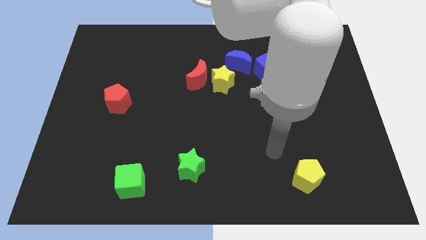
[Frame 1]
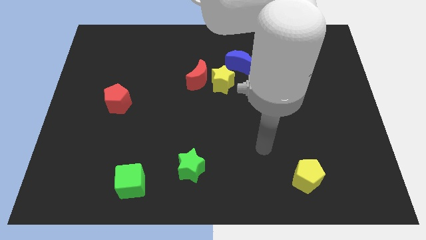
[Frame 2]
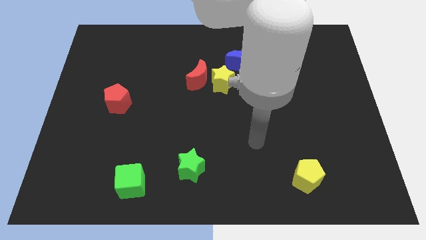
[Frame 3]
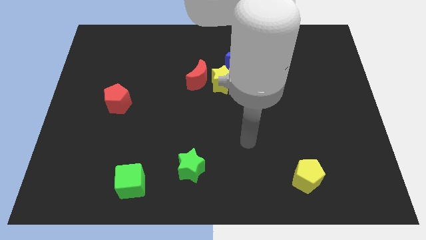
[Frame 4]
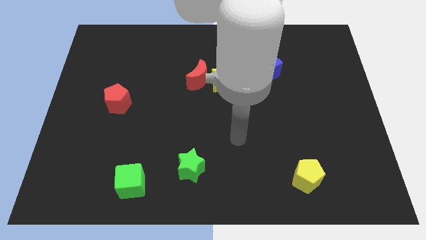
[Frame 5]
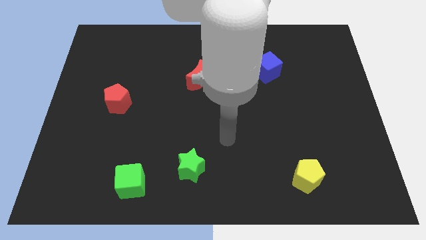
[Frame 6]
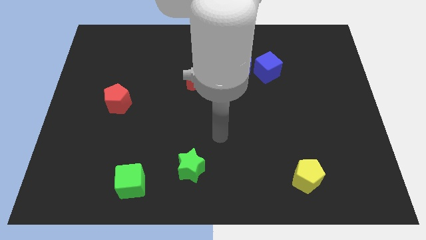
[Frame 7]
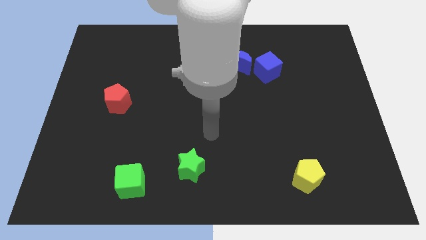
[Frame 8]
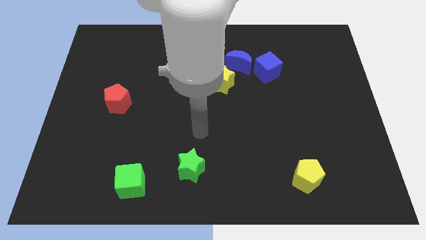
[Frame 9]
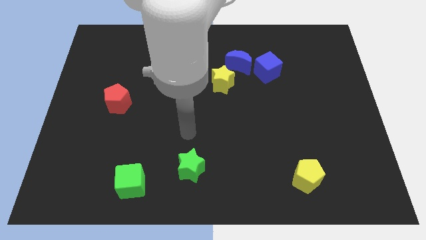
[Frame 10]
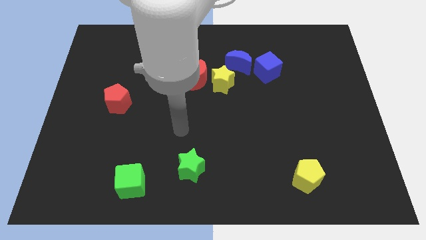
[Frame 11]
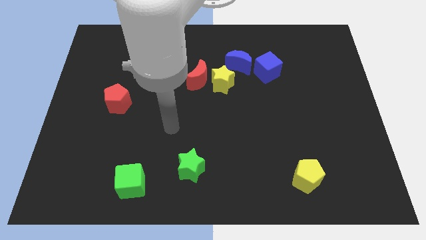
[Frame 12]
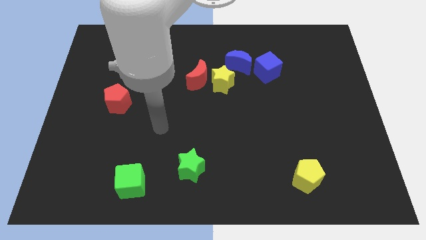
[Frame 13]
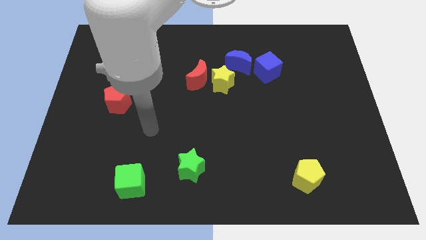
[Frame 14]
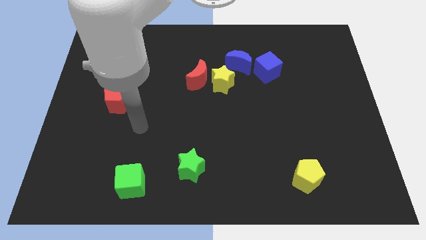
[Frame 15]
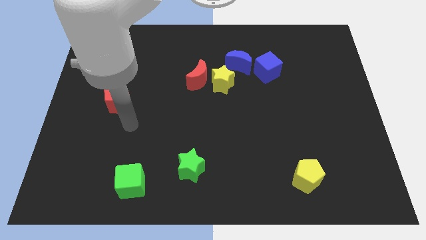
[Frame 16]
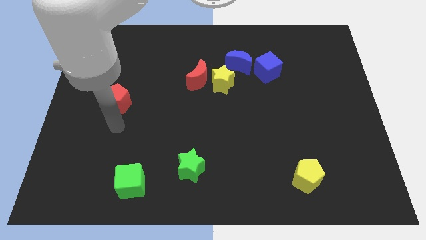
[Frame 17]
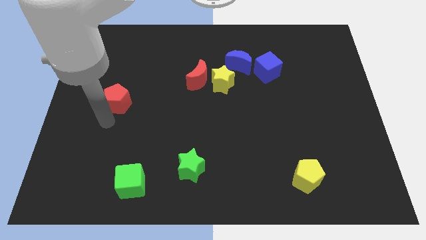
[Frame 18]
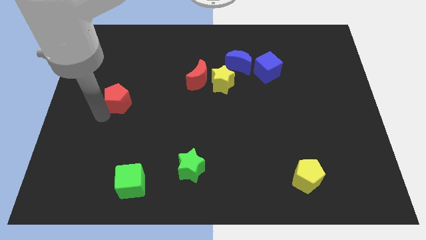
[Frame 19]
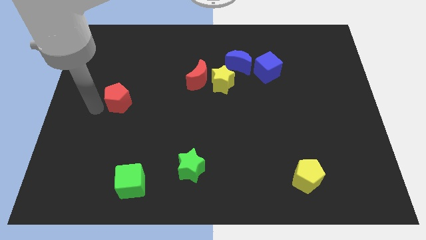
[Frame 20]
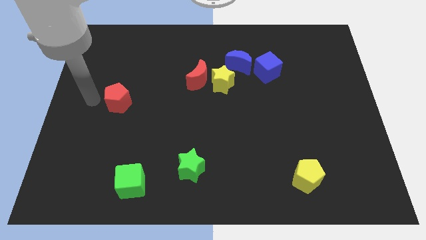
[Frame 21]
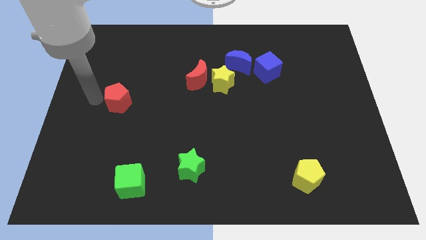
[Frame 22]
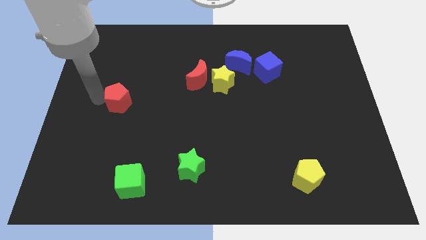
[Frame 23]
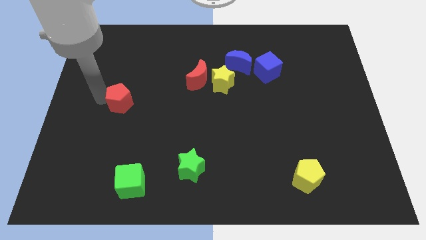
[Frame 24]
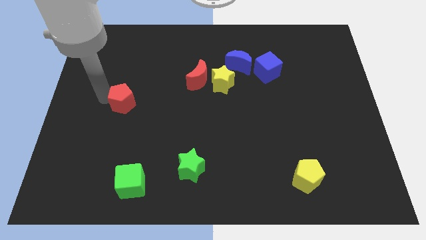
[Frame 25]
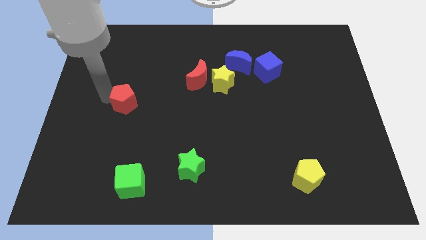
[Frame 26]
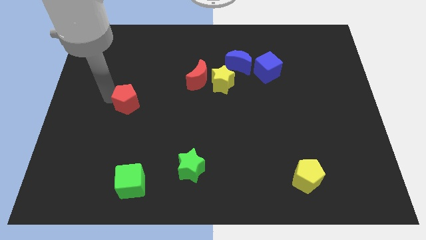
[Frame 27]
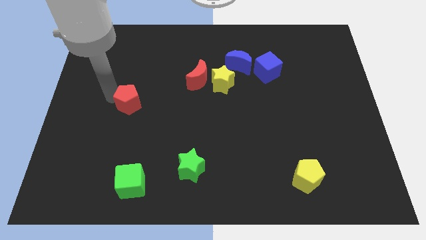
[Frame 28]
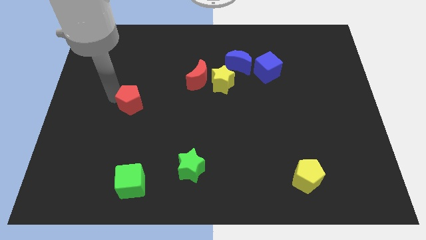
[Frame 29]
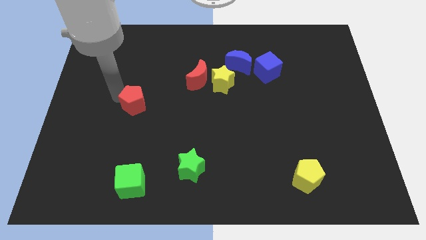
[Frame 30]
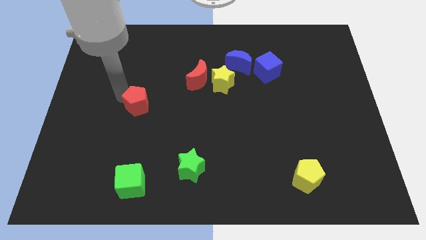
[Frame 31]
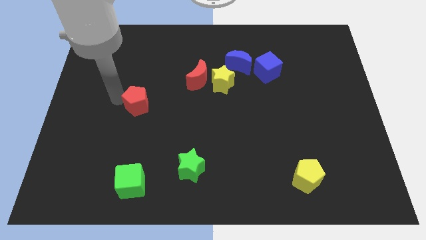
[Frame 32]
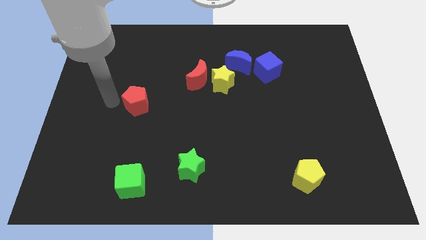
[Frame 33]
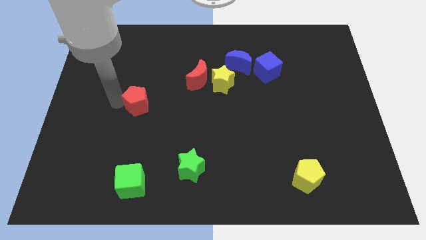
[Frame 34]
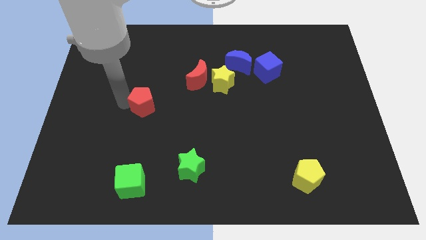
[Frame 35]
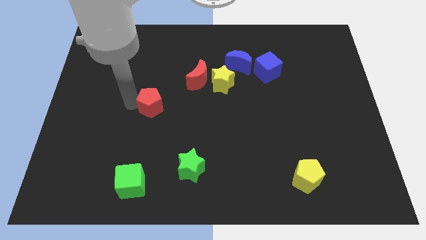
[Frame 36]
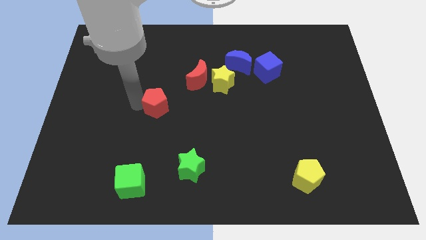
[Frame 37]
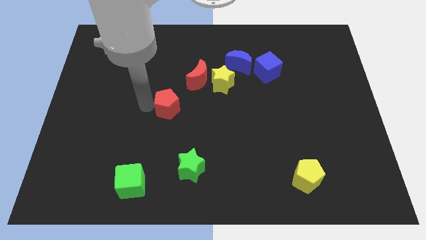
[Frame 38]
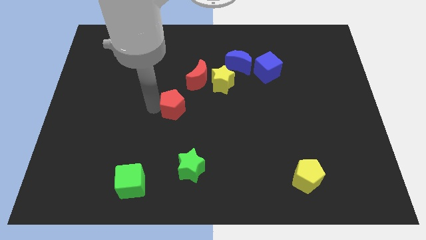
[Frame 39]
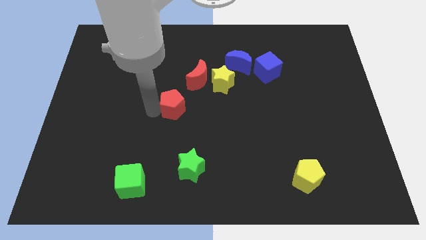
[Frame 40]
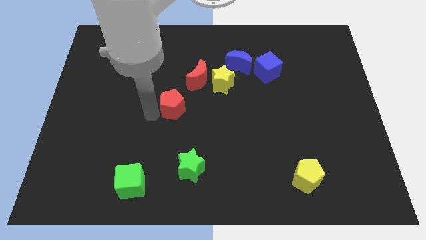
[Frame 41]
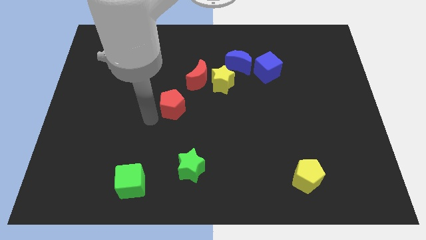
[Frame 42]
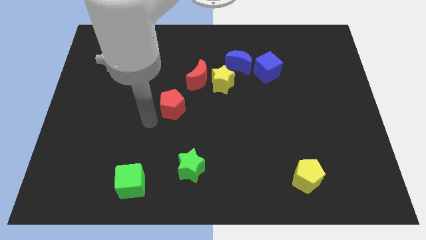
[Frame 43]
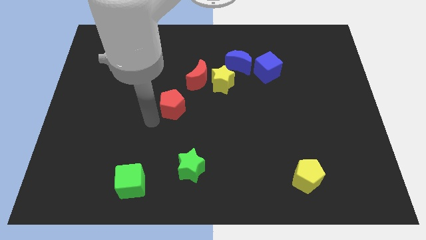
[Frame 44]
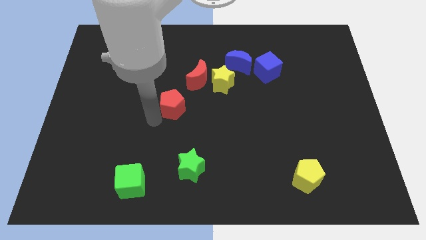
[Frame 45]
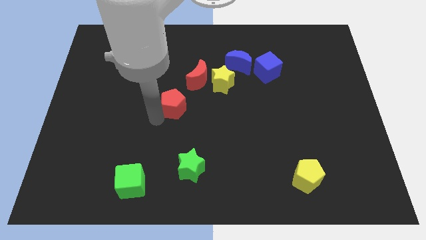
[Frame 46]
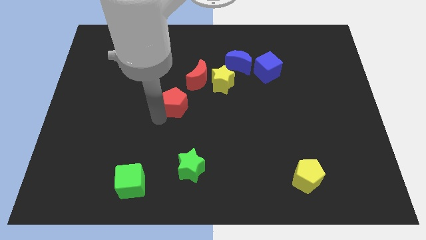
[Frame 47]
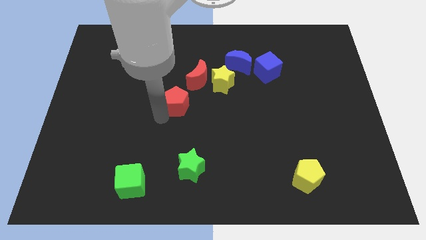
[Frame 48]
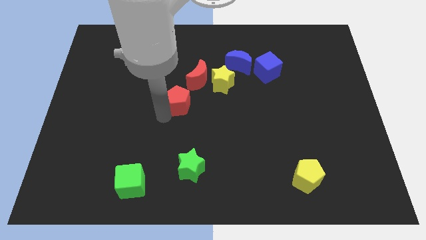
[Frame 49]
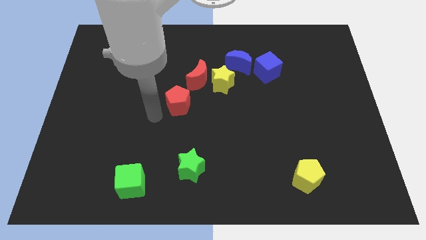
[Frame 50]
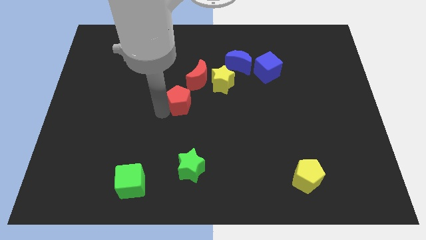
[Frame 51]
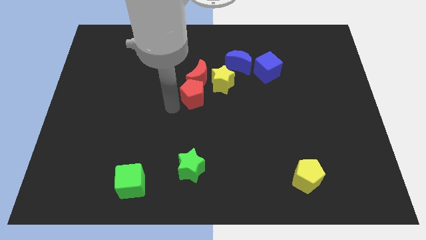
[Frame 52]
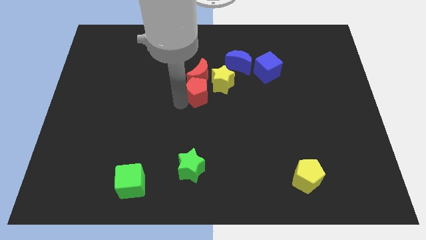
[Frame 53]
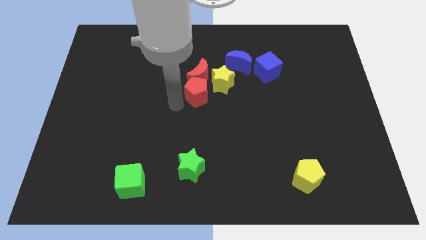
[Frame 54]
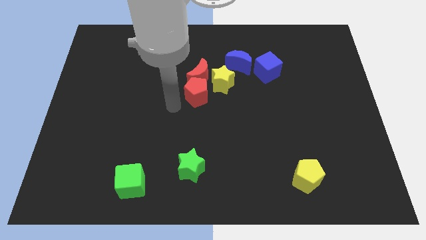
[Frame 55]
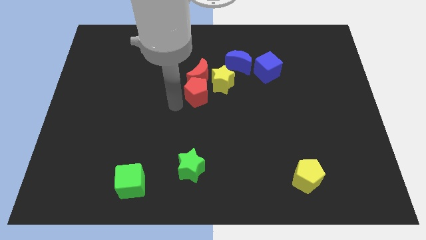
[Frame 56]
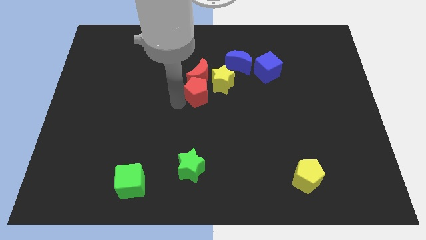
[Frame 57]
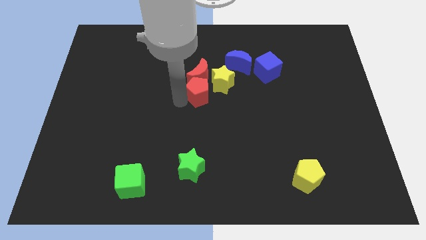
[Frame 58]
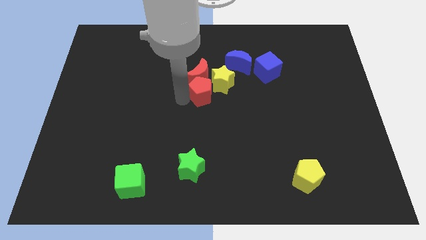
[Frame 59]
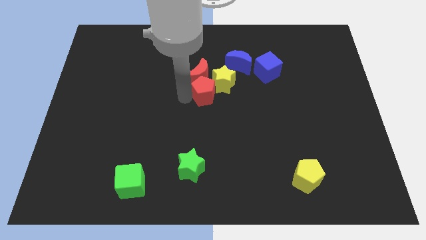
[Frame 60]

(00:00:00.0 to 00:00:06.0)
push the red pentagon to the yellow star

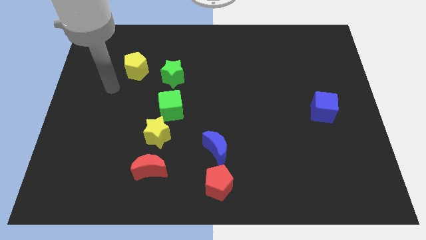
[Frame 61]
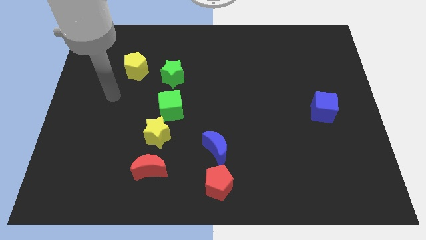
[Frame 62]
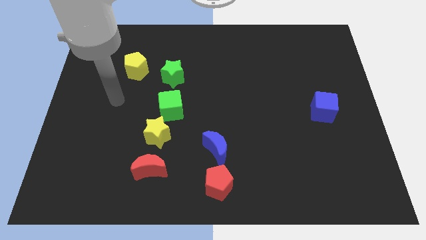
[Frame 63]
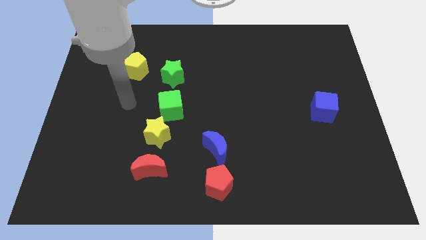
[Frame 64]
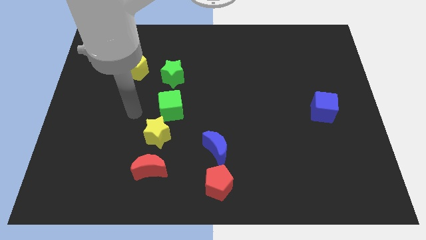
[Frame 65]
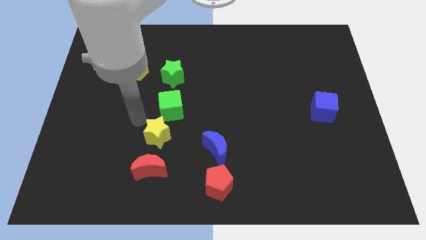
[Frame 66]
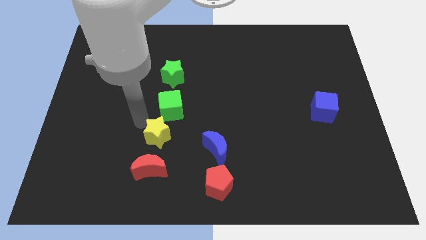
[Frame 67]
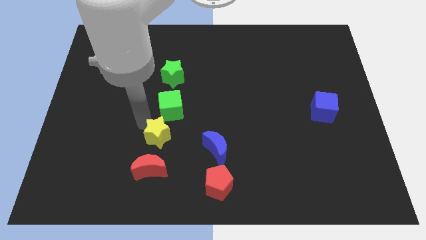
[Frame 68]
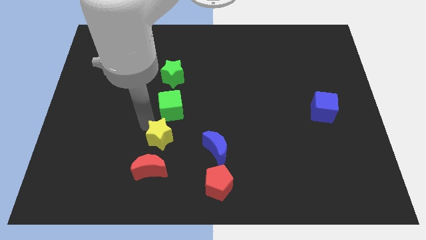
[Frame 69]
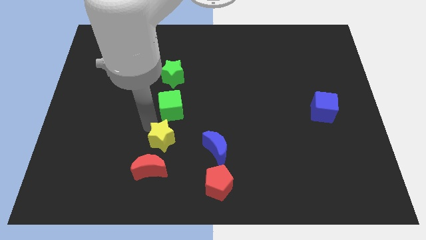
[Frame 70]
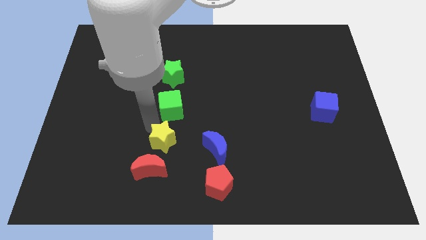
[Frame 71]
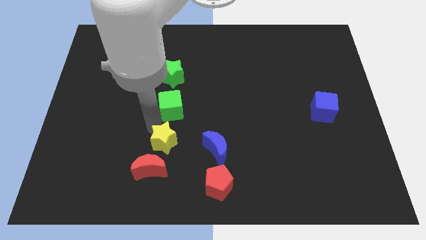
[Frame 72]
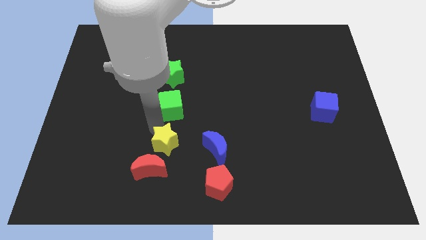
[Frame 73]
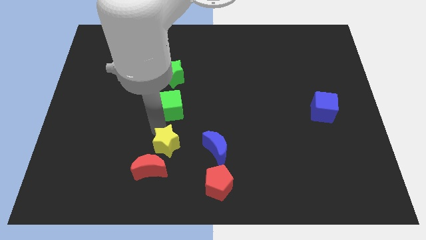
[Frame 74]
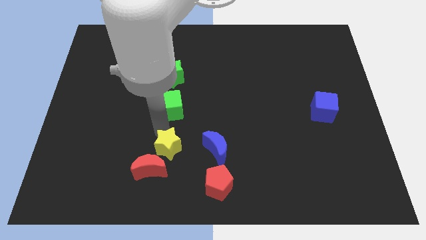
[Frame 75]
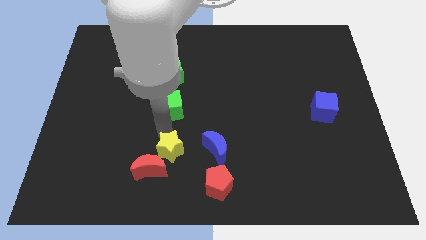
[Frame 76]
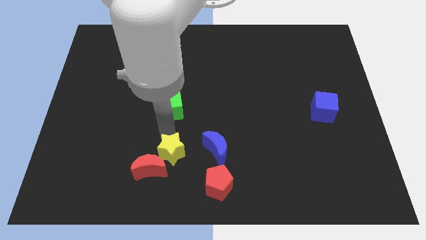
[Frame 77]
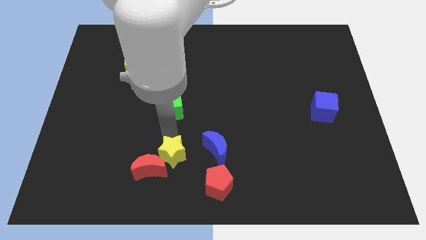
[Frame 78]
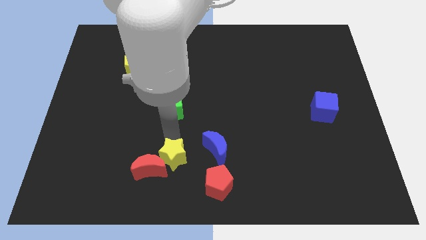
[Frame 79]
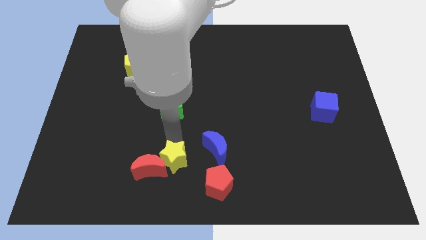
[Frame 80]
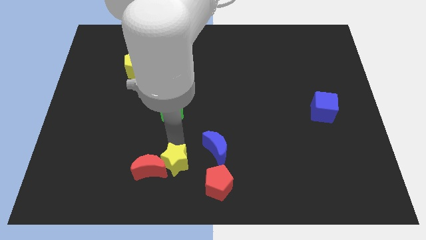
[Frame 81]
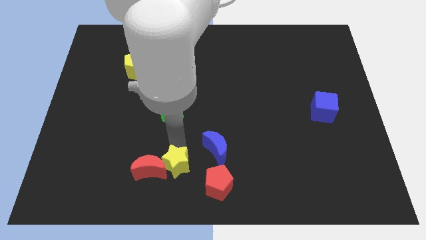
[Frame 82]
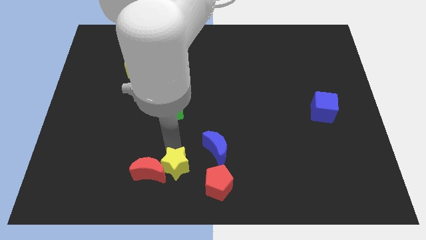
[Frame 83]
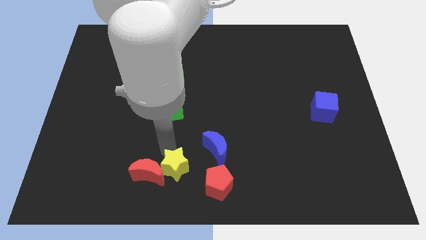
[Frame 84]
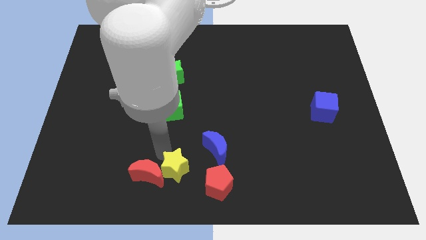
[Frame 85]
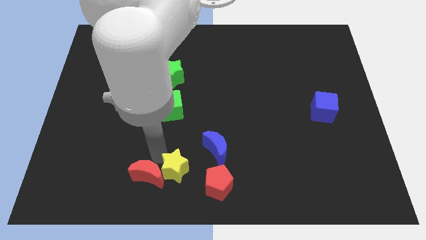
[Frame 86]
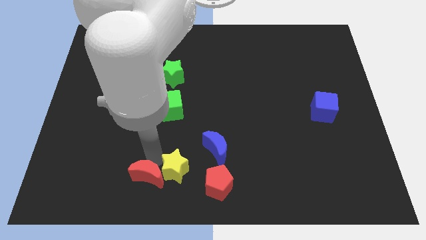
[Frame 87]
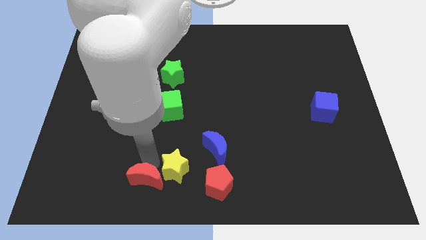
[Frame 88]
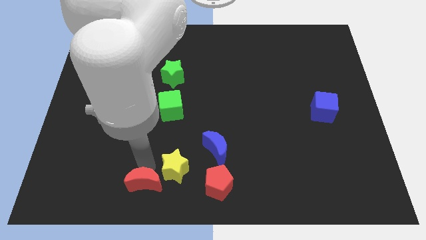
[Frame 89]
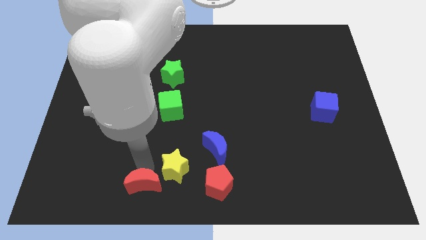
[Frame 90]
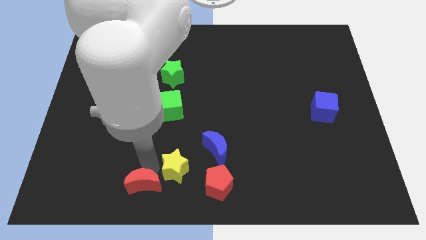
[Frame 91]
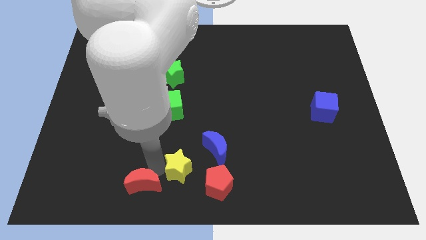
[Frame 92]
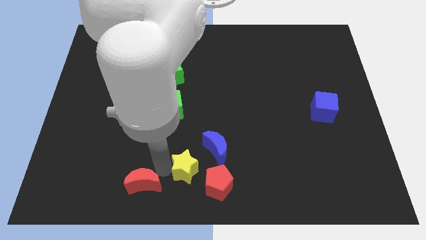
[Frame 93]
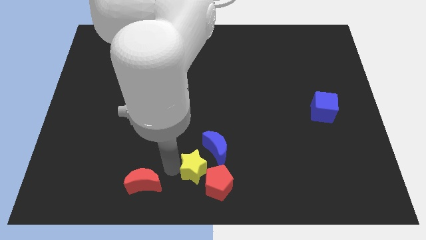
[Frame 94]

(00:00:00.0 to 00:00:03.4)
put the yellow star next to the red pentagon
